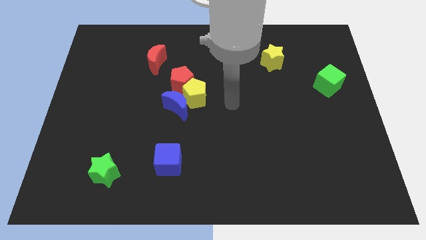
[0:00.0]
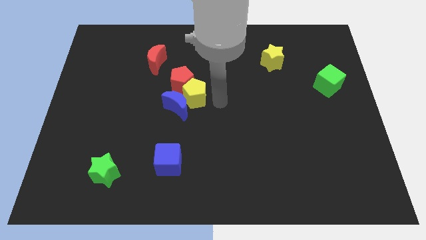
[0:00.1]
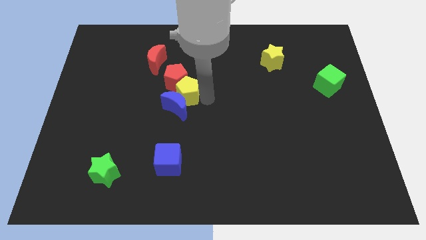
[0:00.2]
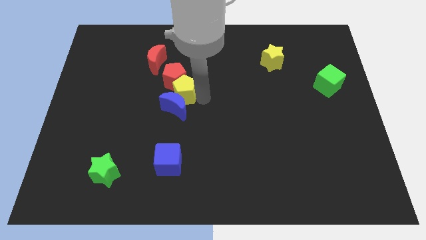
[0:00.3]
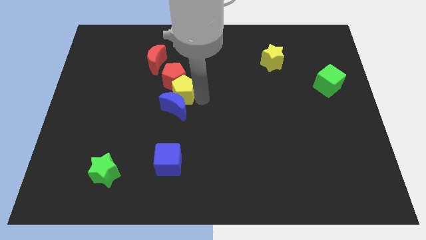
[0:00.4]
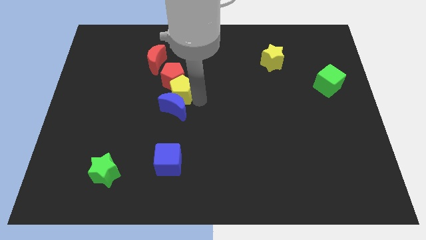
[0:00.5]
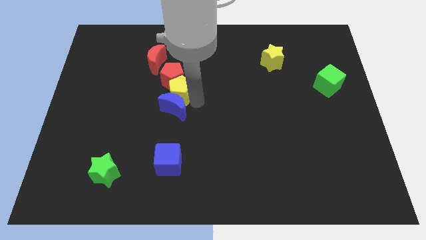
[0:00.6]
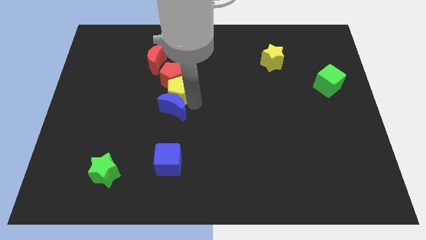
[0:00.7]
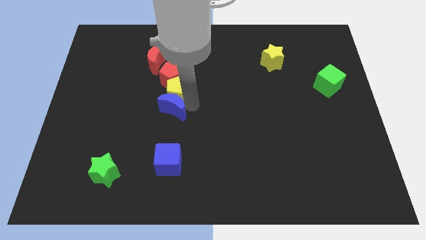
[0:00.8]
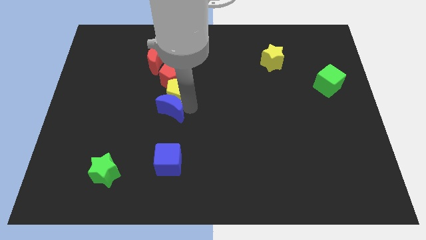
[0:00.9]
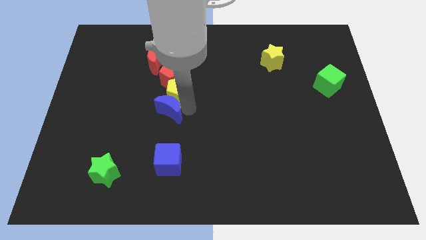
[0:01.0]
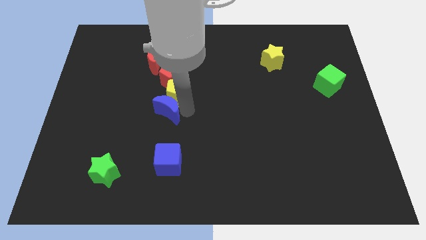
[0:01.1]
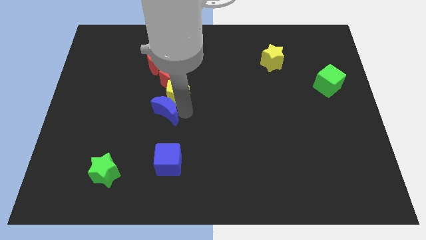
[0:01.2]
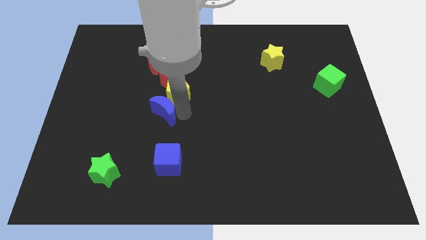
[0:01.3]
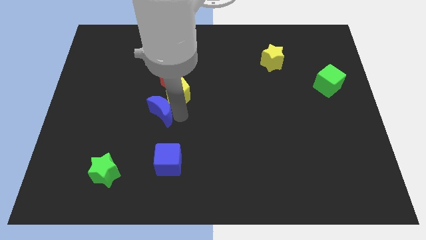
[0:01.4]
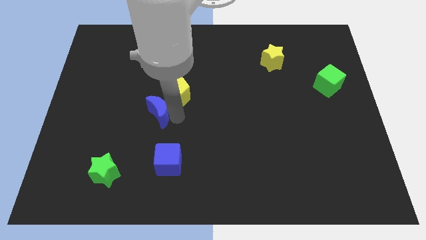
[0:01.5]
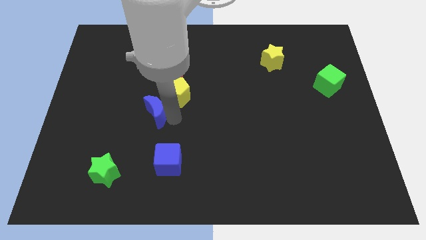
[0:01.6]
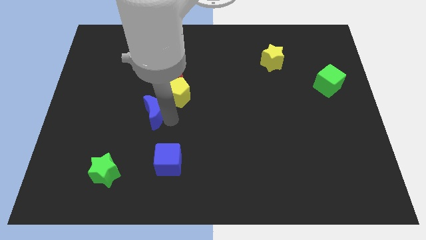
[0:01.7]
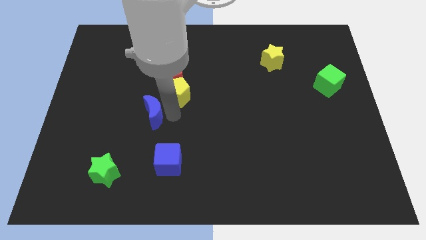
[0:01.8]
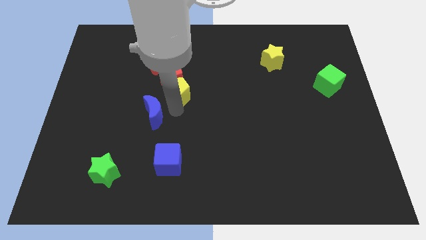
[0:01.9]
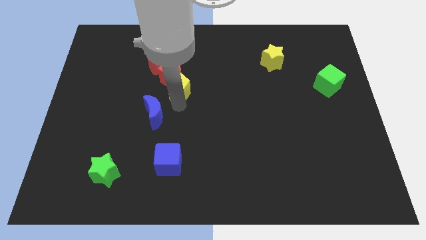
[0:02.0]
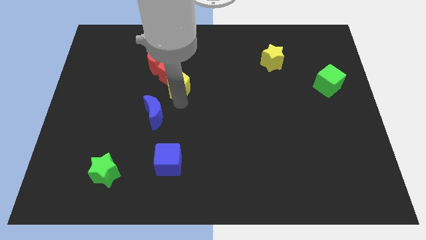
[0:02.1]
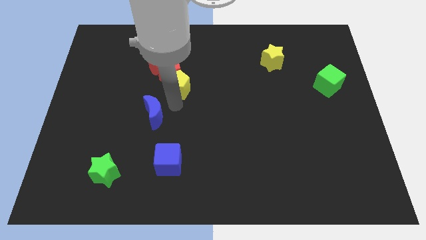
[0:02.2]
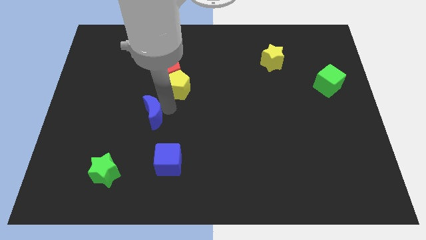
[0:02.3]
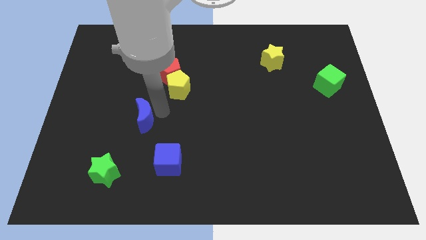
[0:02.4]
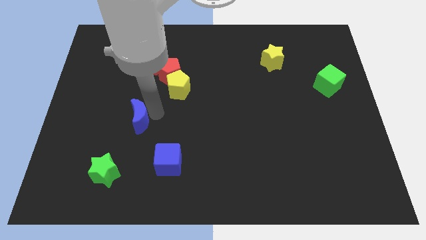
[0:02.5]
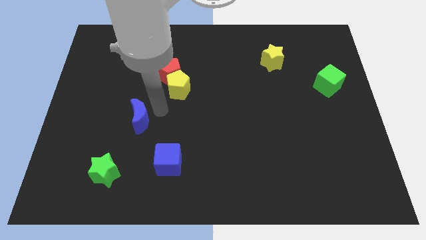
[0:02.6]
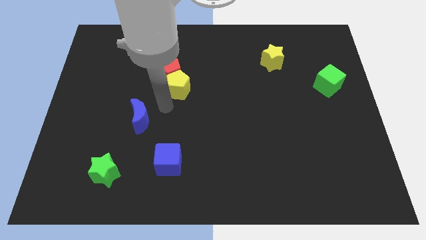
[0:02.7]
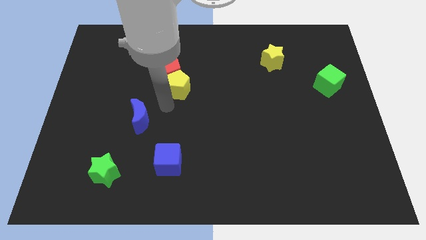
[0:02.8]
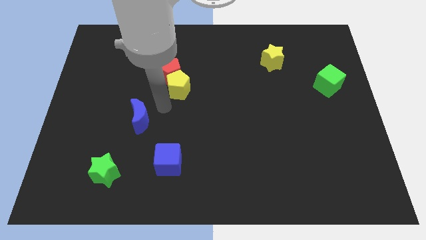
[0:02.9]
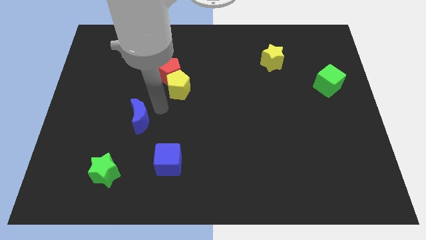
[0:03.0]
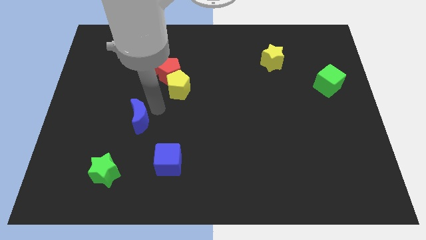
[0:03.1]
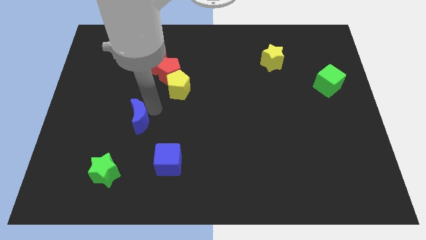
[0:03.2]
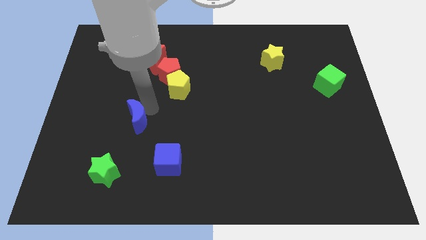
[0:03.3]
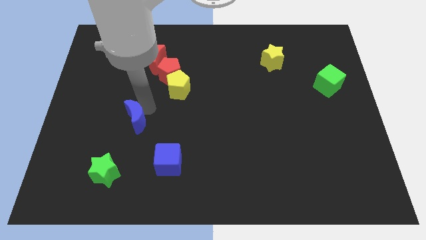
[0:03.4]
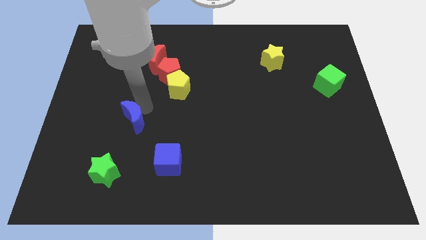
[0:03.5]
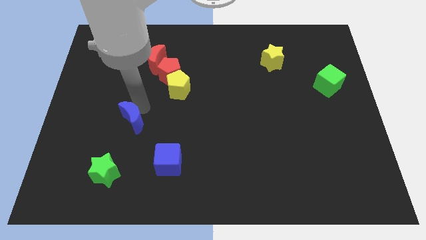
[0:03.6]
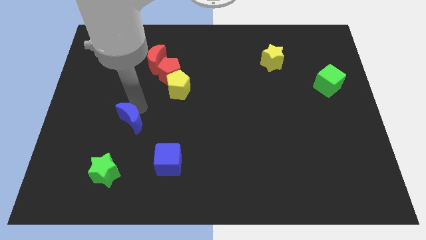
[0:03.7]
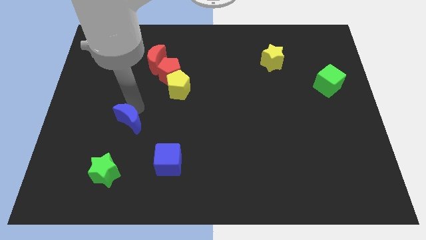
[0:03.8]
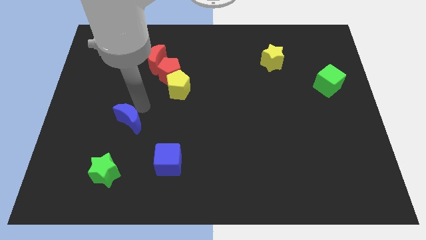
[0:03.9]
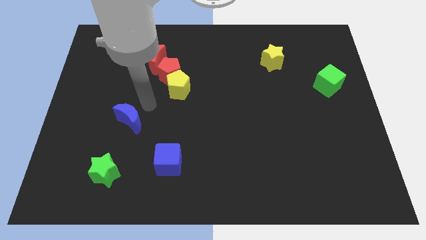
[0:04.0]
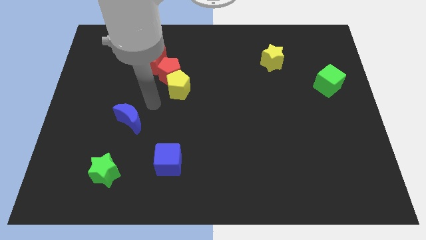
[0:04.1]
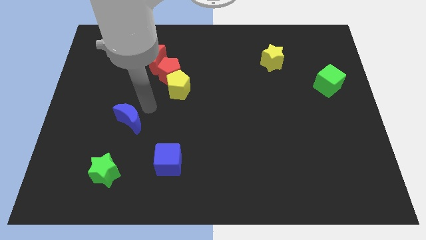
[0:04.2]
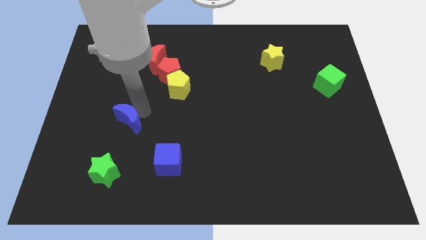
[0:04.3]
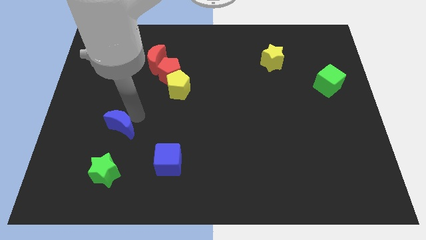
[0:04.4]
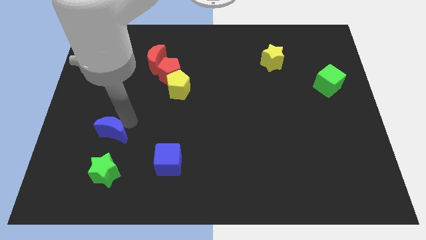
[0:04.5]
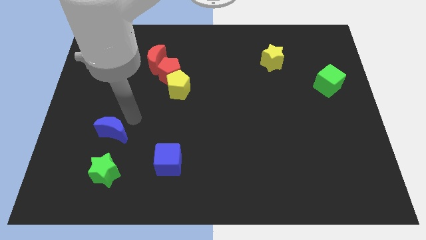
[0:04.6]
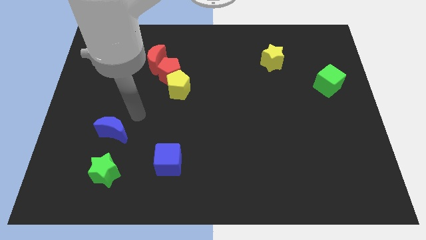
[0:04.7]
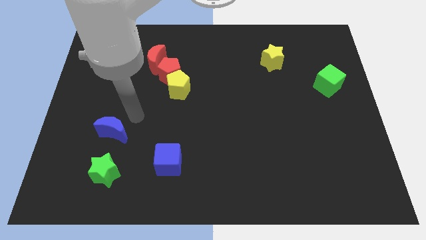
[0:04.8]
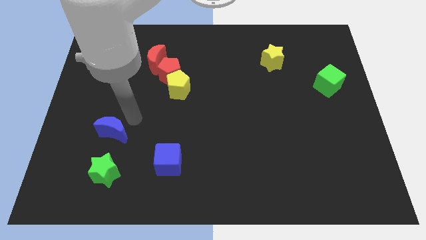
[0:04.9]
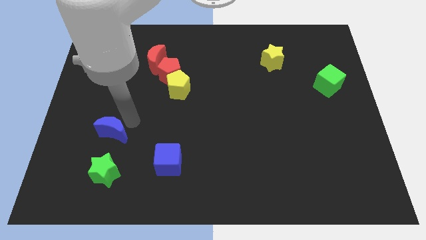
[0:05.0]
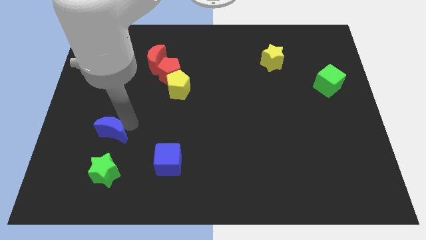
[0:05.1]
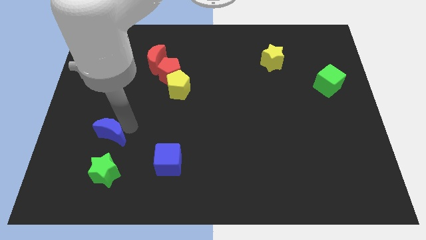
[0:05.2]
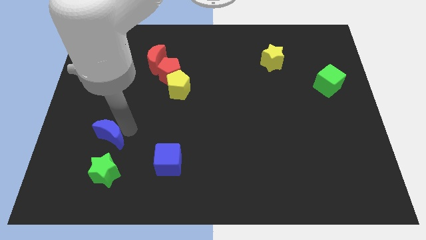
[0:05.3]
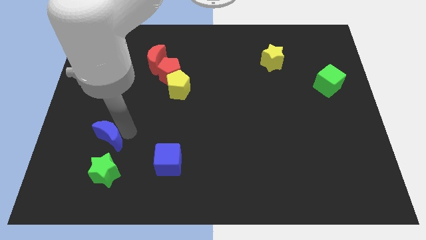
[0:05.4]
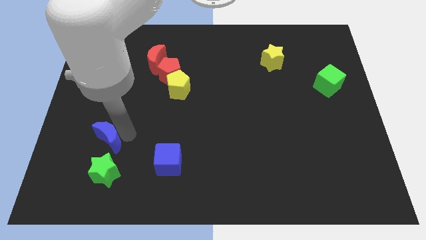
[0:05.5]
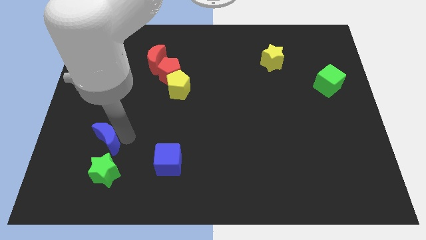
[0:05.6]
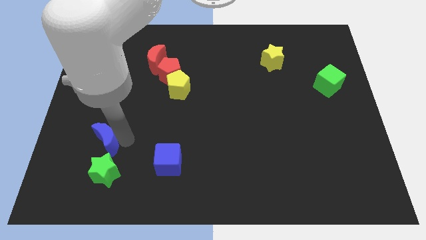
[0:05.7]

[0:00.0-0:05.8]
move the blue moon diagonally up and to the left of the green star

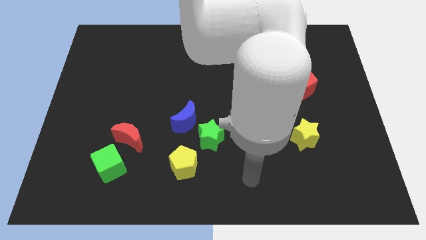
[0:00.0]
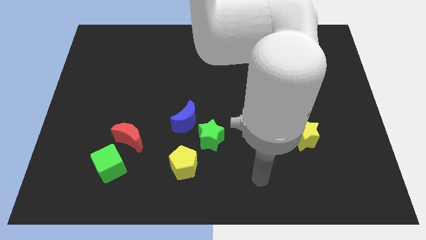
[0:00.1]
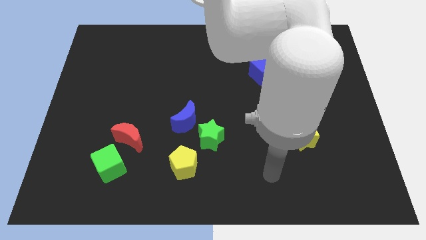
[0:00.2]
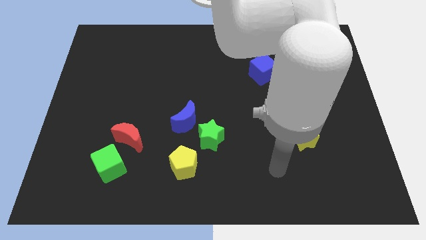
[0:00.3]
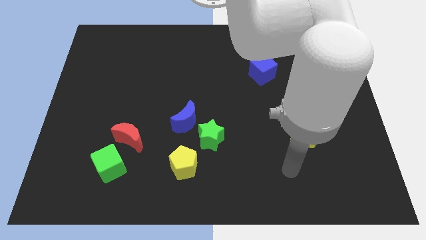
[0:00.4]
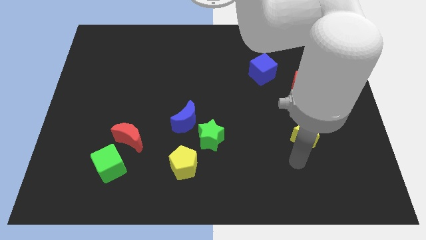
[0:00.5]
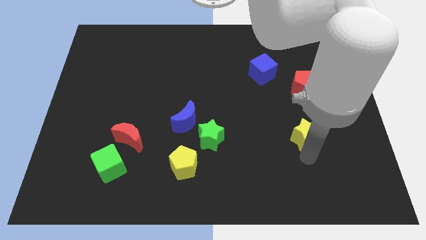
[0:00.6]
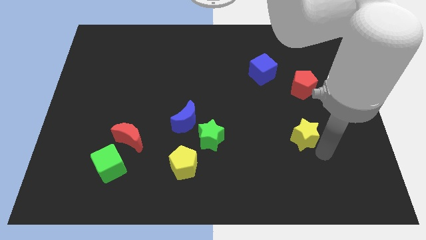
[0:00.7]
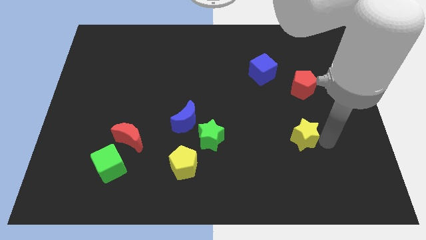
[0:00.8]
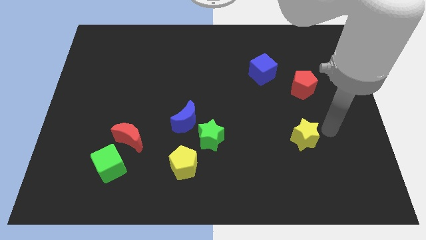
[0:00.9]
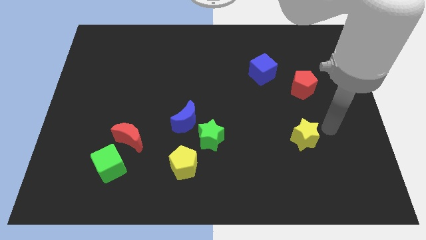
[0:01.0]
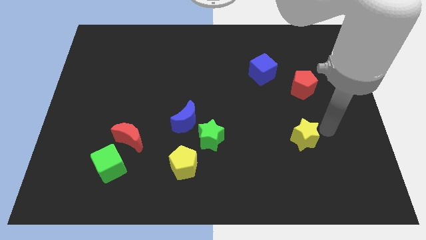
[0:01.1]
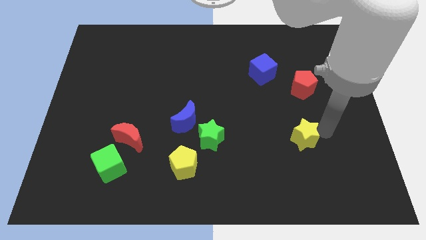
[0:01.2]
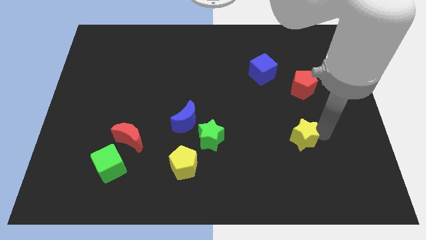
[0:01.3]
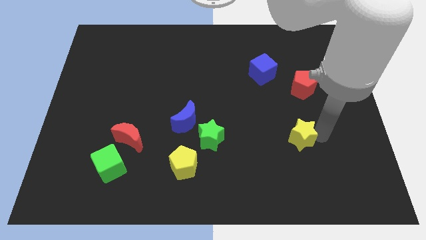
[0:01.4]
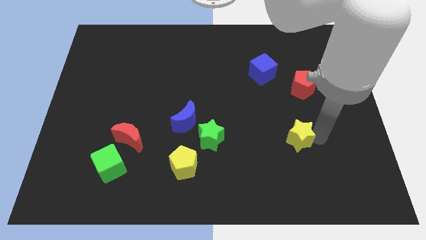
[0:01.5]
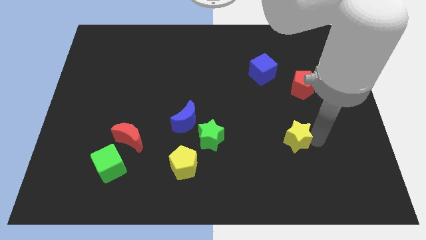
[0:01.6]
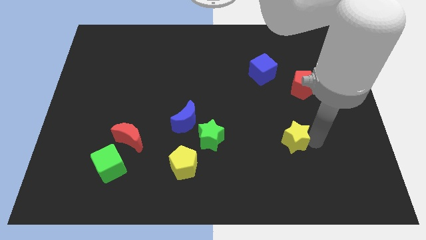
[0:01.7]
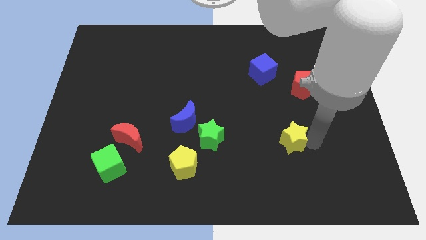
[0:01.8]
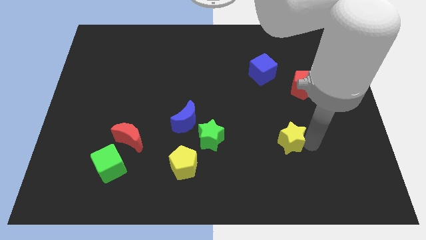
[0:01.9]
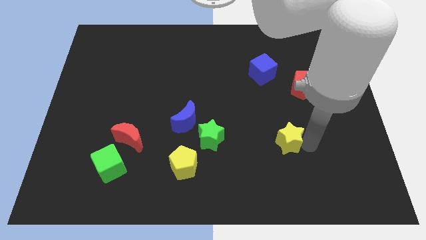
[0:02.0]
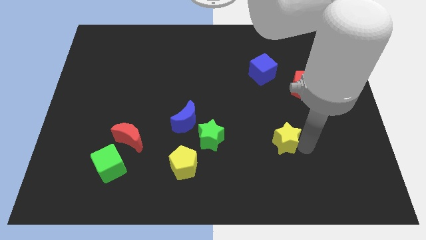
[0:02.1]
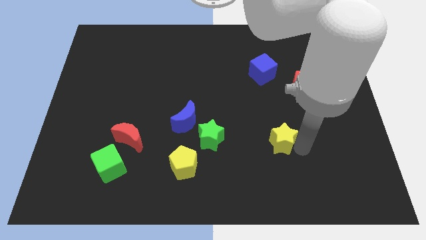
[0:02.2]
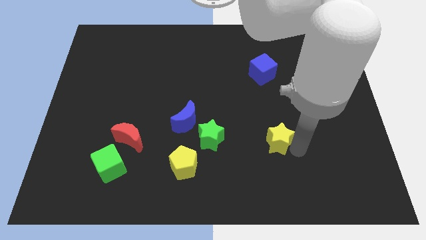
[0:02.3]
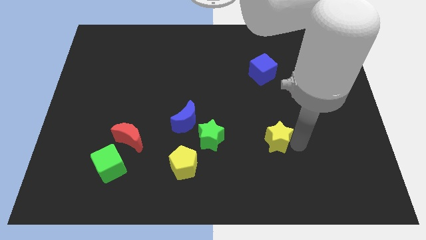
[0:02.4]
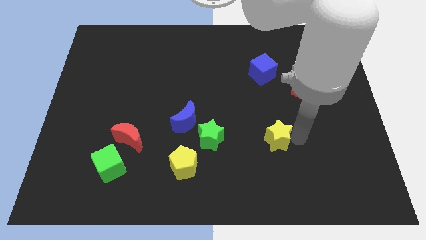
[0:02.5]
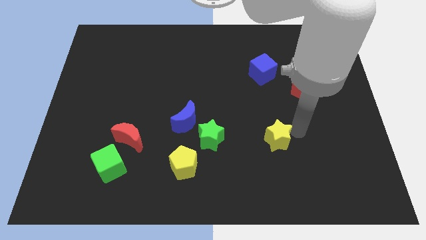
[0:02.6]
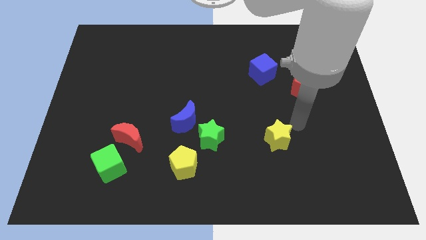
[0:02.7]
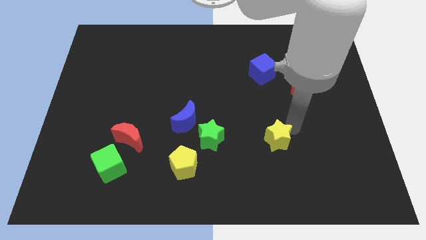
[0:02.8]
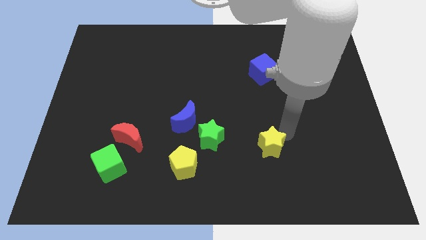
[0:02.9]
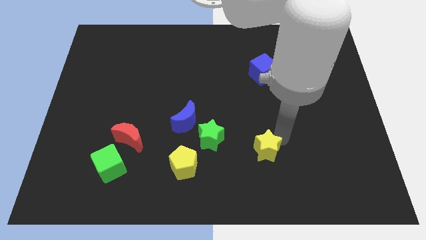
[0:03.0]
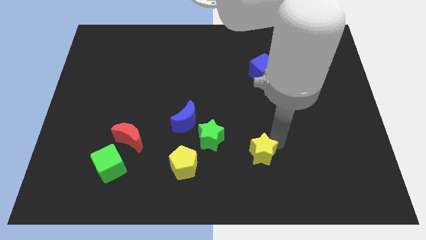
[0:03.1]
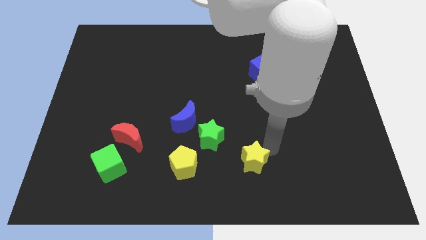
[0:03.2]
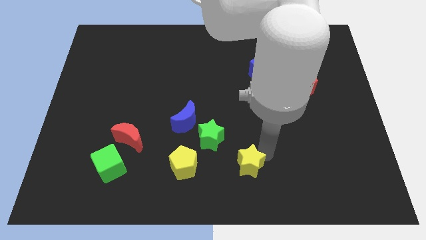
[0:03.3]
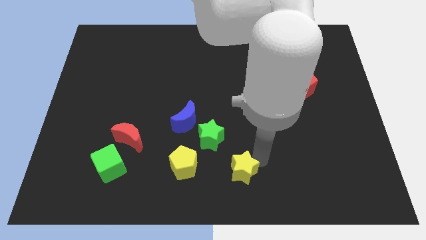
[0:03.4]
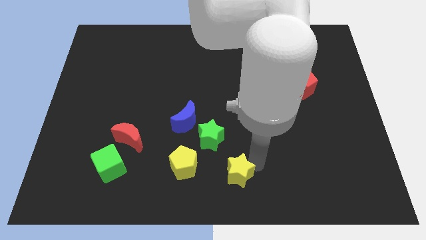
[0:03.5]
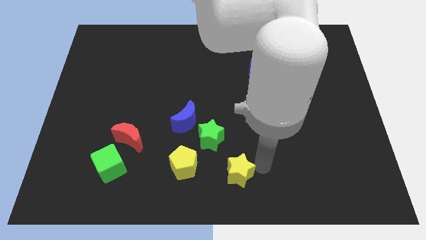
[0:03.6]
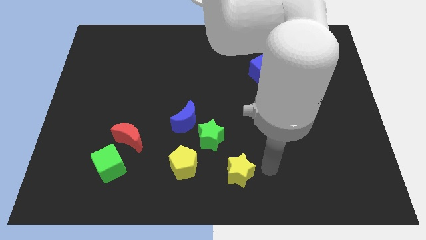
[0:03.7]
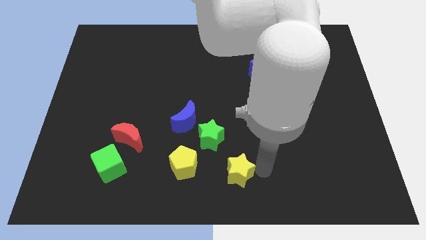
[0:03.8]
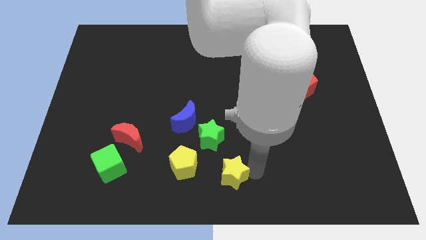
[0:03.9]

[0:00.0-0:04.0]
slide the yellow star to the bottom of the green star
